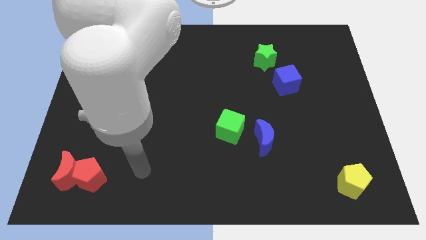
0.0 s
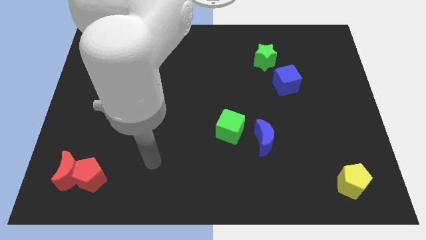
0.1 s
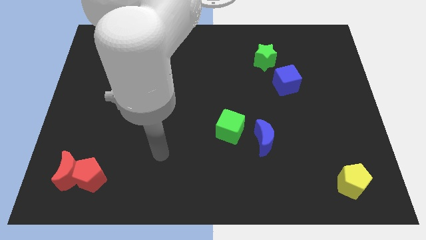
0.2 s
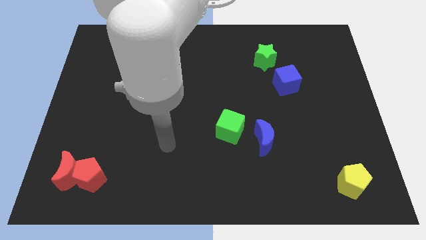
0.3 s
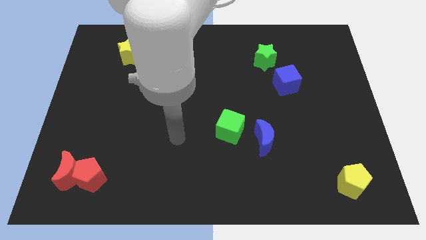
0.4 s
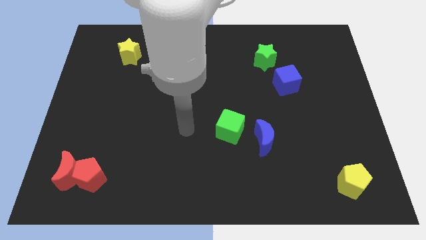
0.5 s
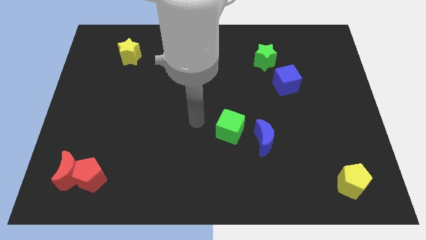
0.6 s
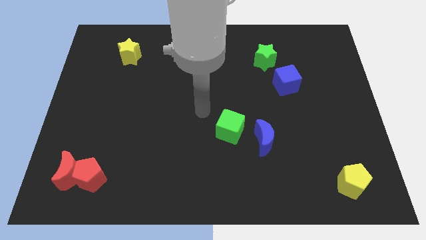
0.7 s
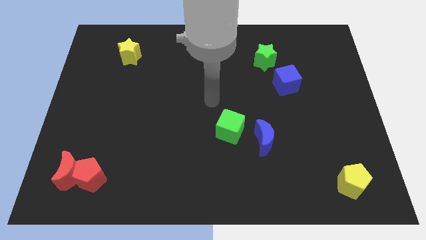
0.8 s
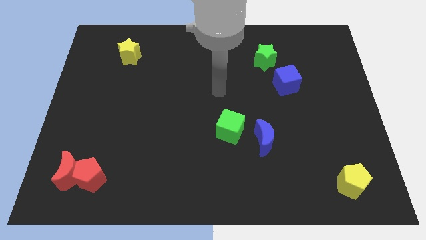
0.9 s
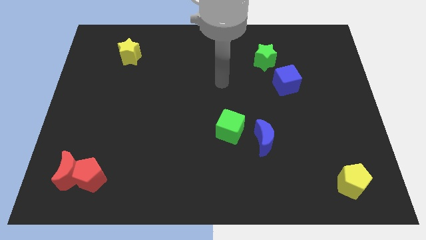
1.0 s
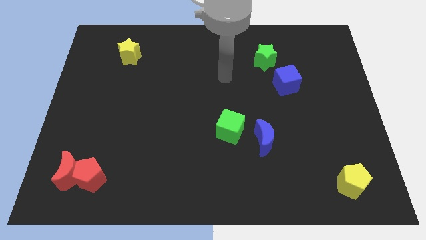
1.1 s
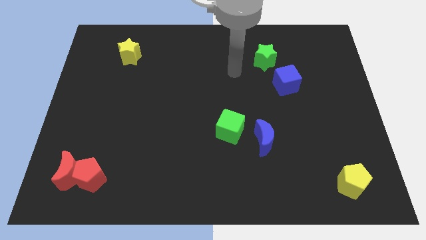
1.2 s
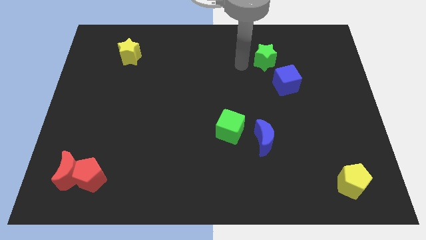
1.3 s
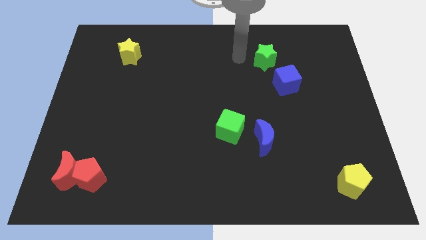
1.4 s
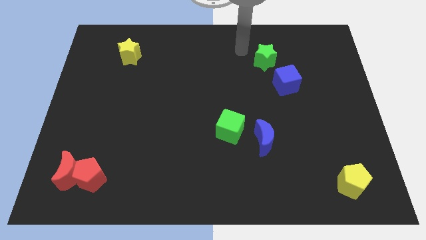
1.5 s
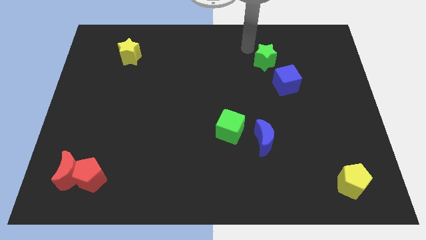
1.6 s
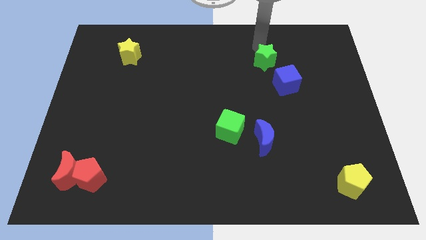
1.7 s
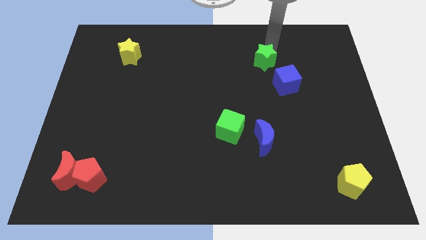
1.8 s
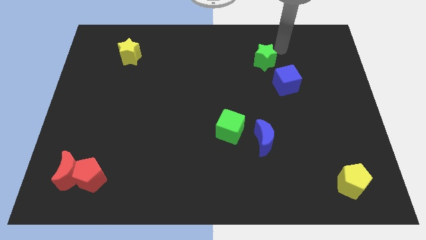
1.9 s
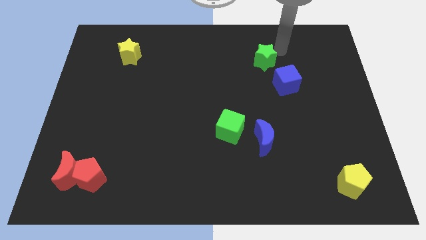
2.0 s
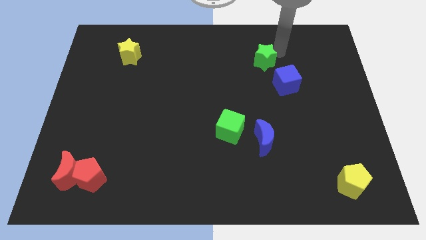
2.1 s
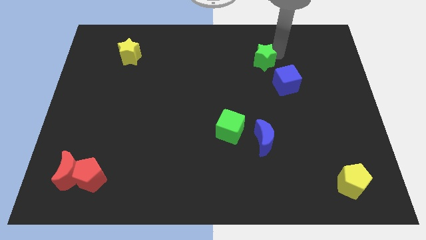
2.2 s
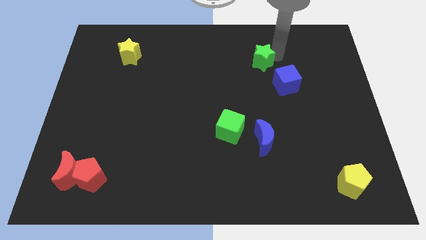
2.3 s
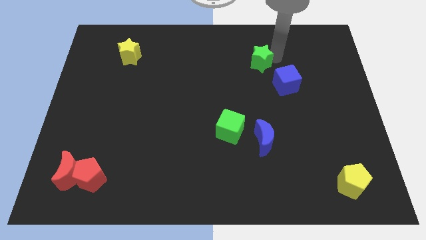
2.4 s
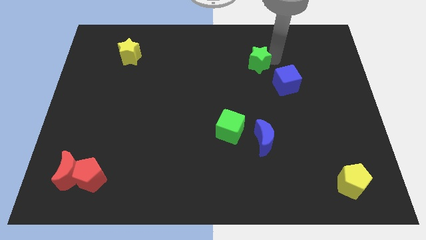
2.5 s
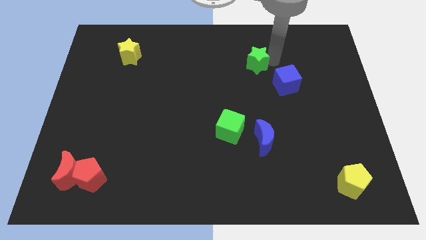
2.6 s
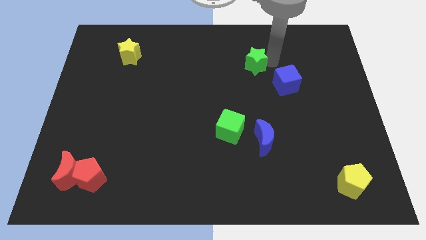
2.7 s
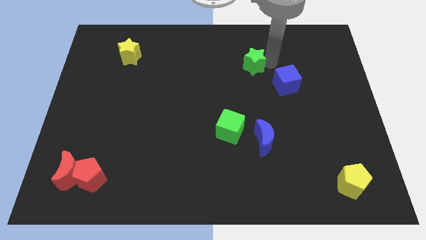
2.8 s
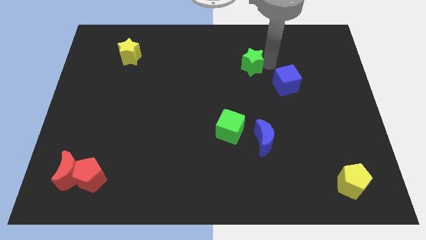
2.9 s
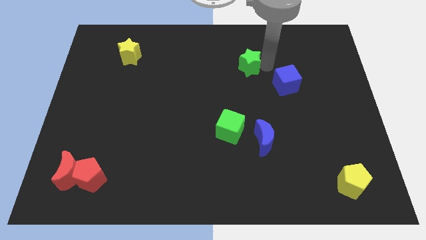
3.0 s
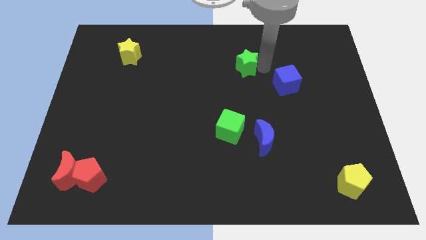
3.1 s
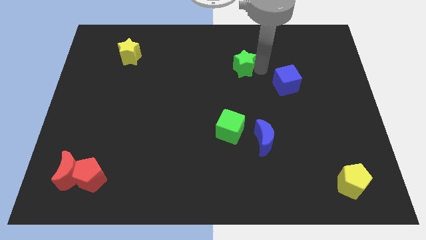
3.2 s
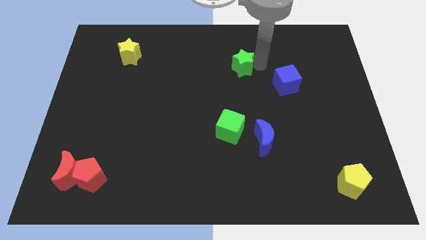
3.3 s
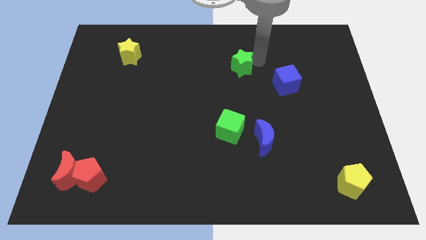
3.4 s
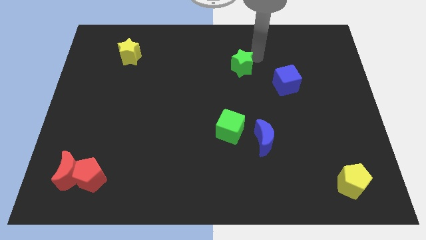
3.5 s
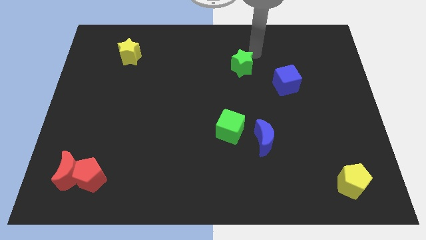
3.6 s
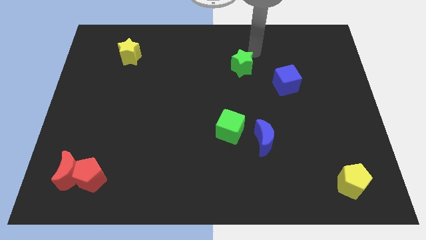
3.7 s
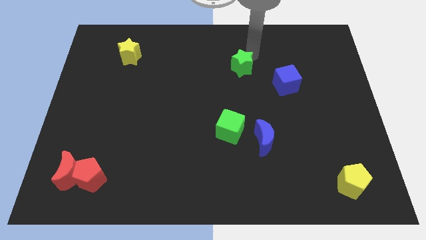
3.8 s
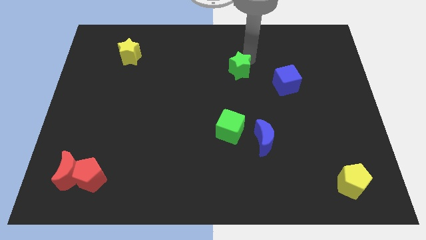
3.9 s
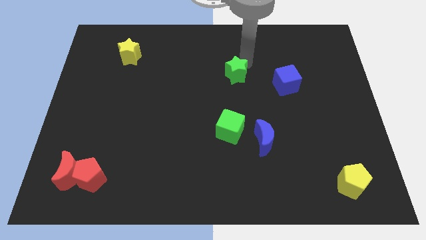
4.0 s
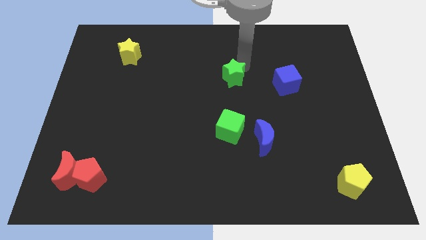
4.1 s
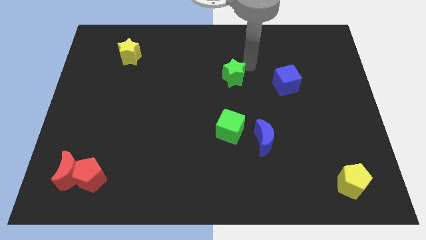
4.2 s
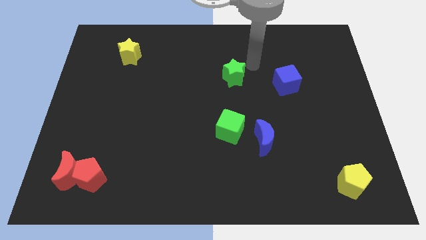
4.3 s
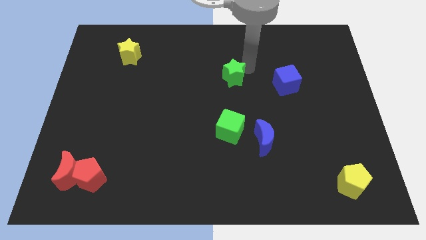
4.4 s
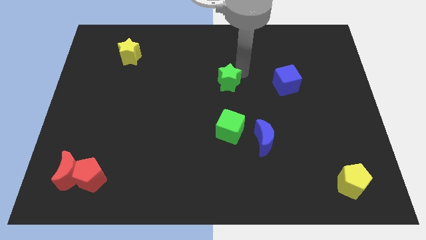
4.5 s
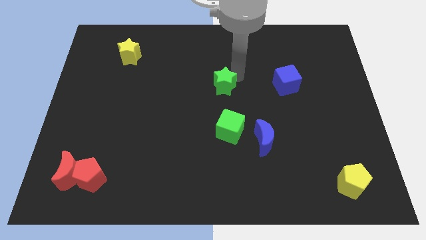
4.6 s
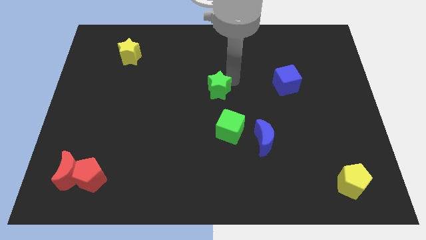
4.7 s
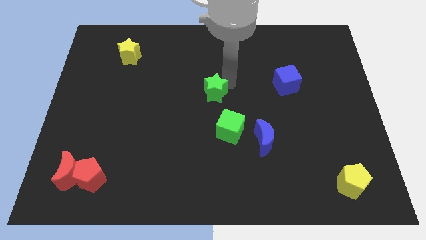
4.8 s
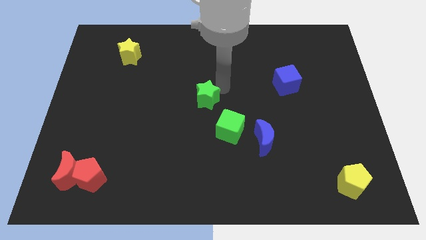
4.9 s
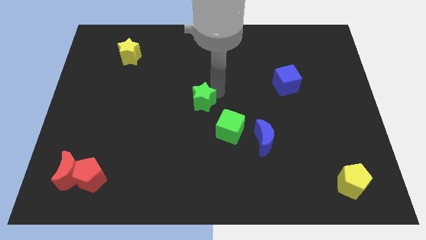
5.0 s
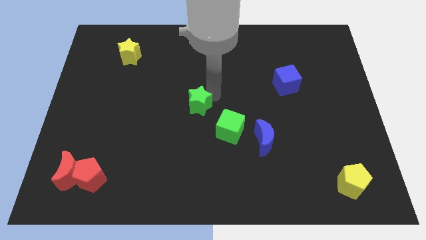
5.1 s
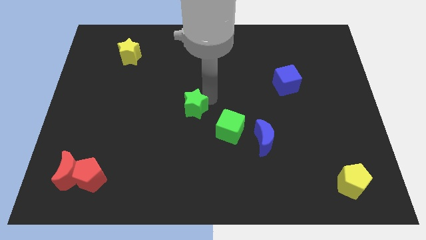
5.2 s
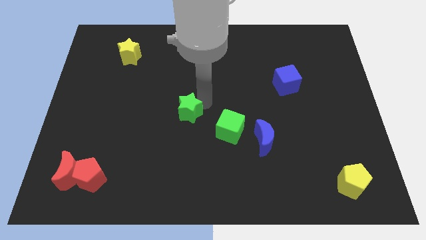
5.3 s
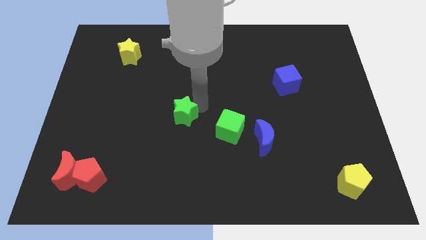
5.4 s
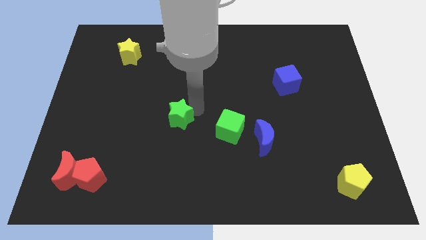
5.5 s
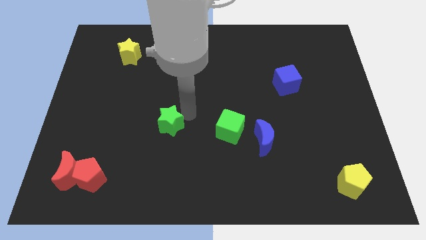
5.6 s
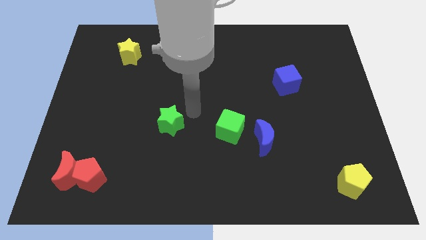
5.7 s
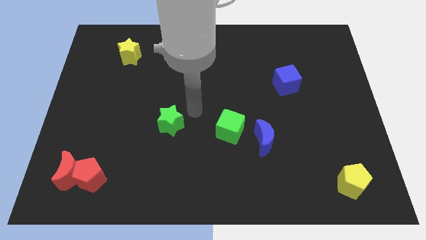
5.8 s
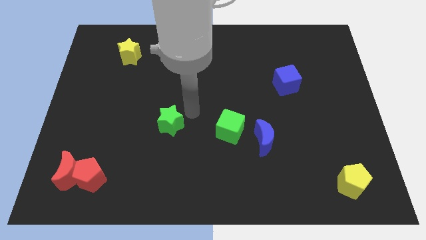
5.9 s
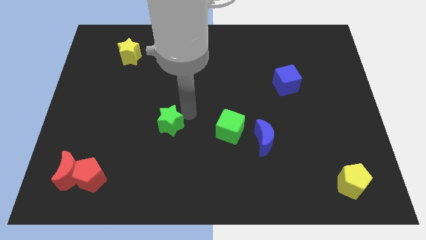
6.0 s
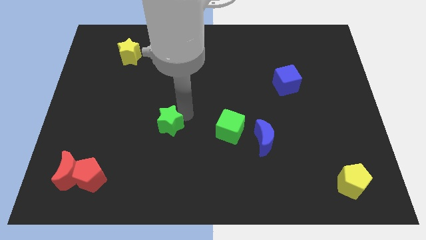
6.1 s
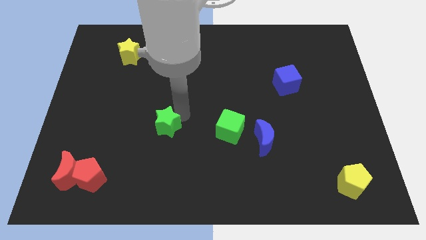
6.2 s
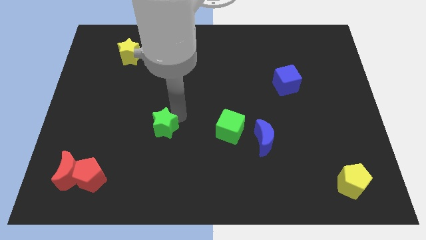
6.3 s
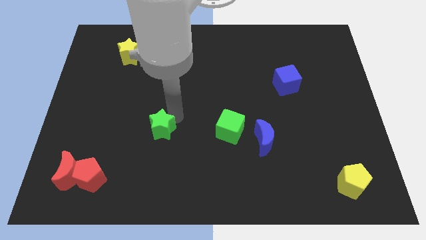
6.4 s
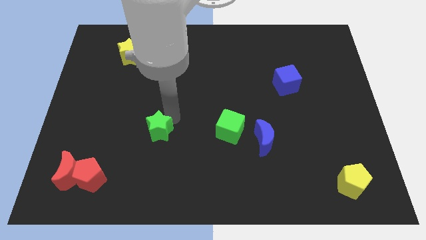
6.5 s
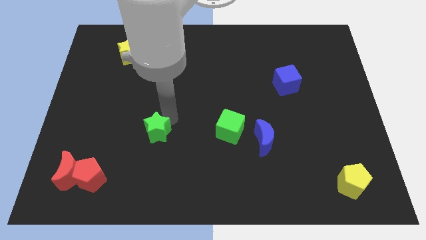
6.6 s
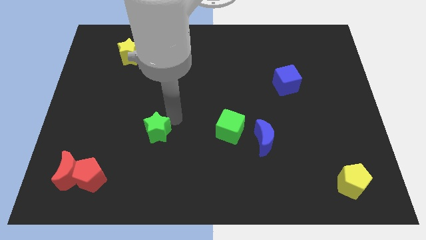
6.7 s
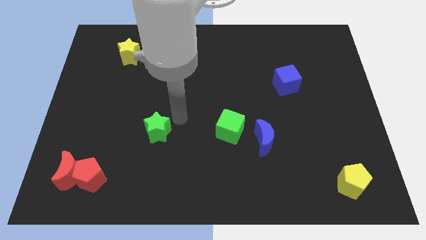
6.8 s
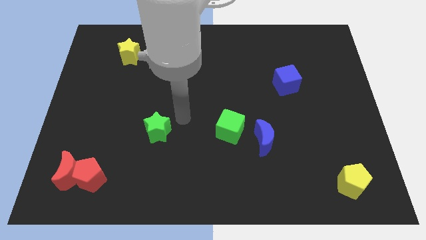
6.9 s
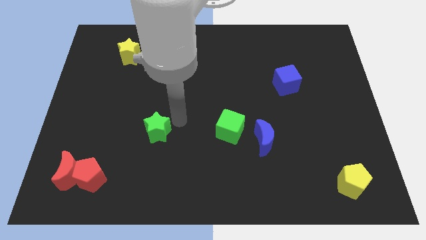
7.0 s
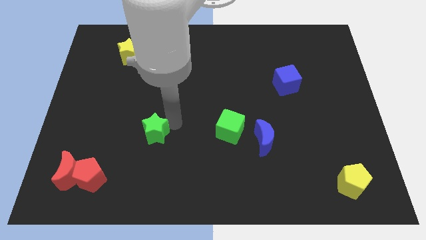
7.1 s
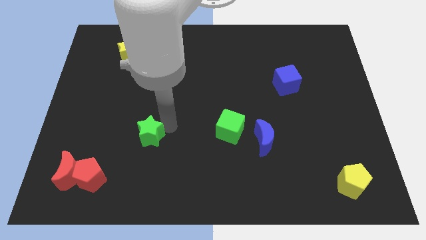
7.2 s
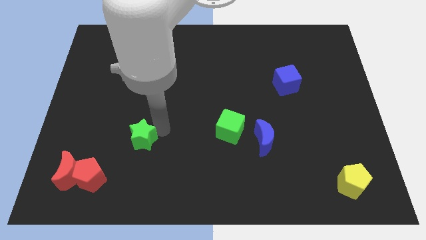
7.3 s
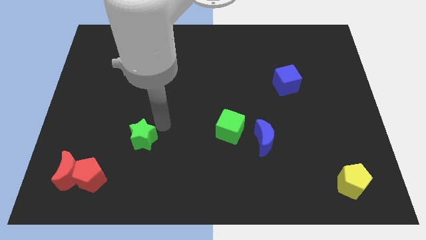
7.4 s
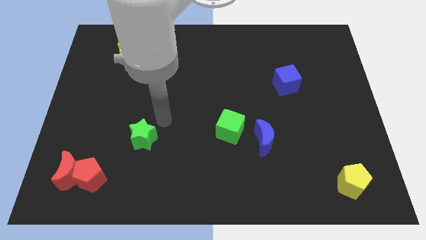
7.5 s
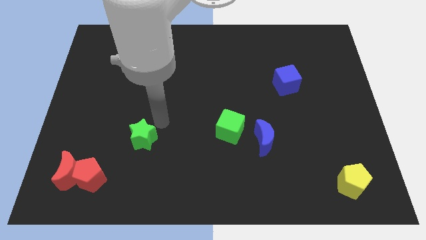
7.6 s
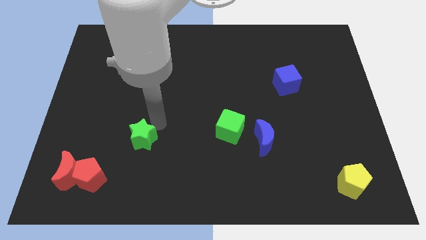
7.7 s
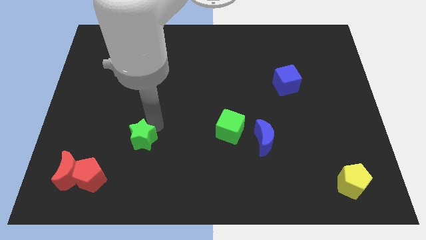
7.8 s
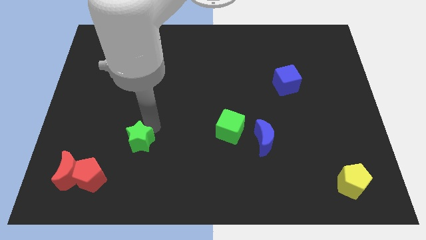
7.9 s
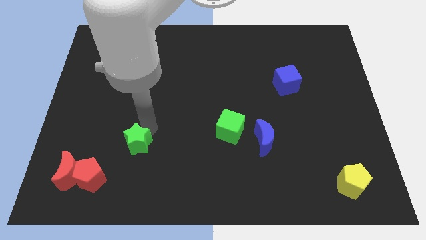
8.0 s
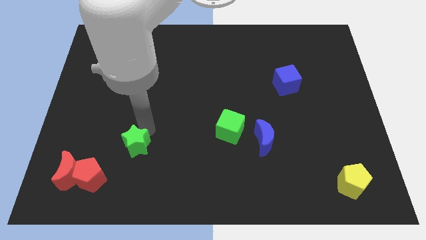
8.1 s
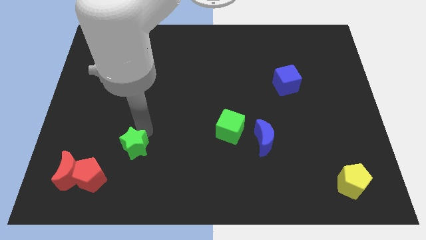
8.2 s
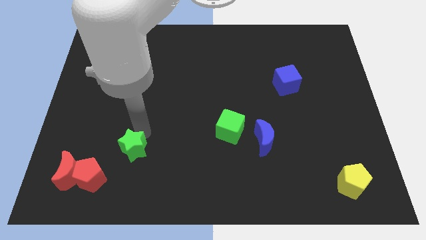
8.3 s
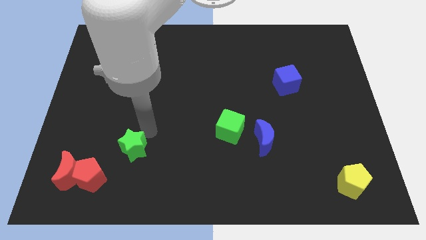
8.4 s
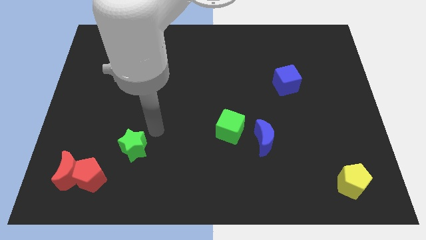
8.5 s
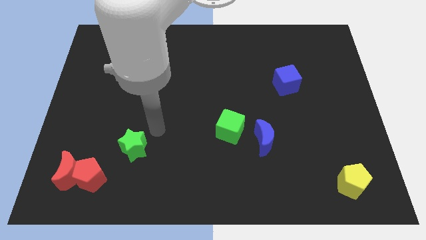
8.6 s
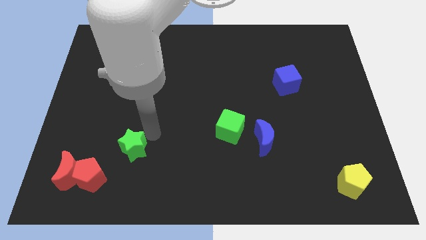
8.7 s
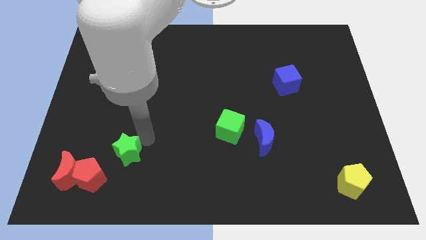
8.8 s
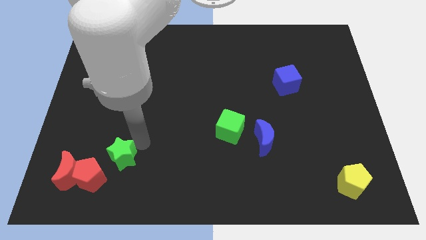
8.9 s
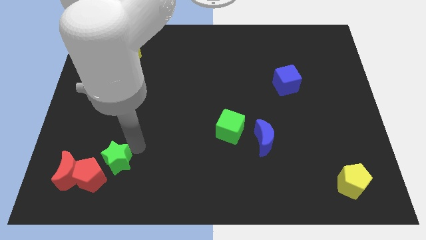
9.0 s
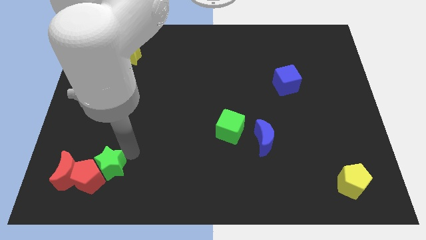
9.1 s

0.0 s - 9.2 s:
slide the green star close to the red pentagon
